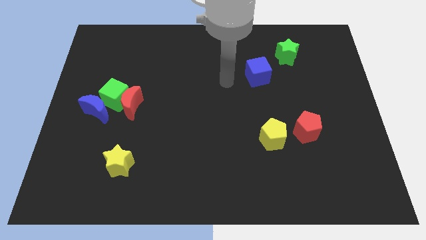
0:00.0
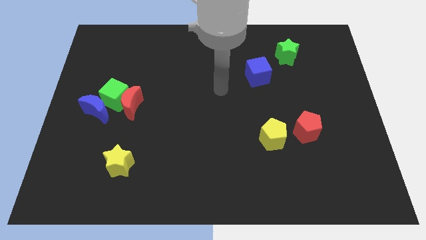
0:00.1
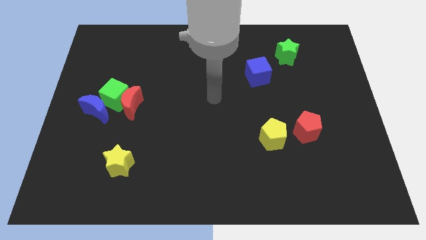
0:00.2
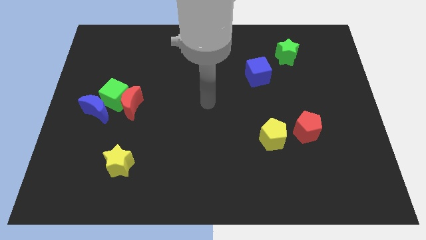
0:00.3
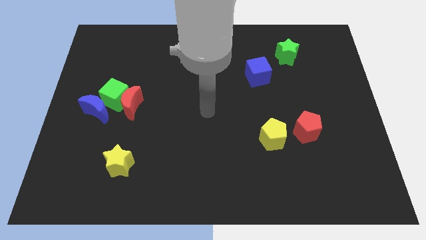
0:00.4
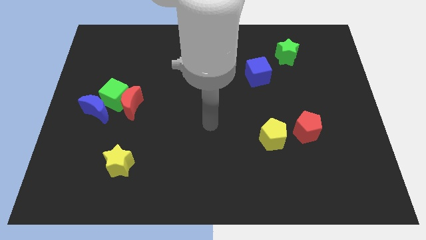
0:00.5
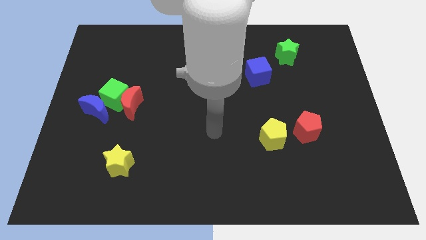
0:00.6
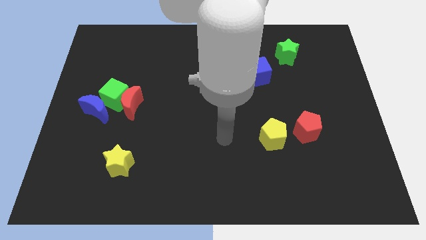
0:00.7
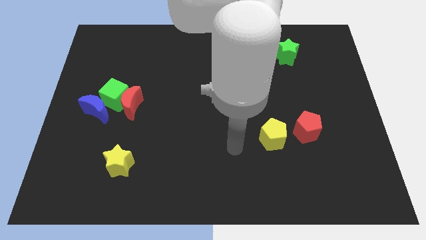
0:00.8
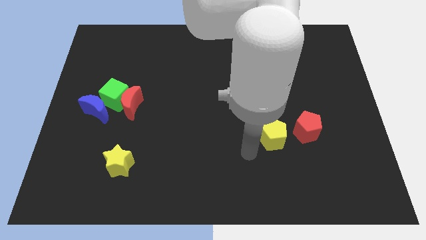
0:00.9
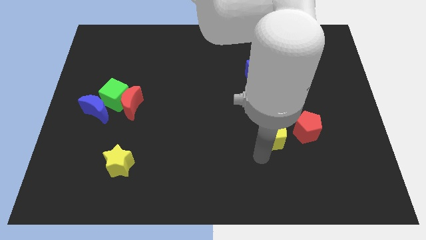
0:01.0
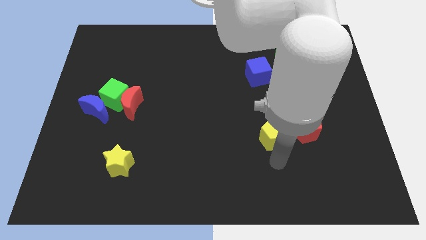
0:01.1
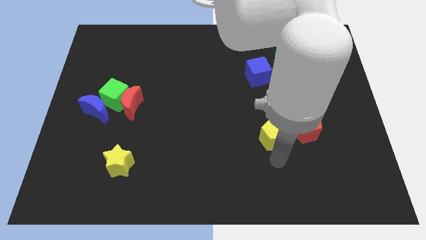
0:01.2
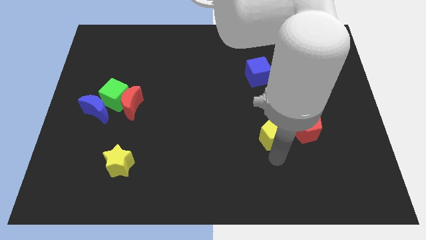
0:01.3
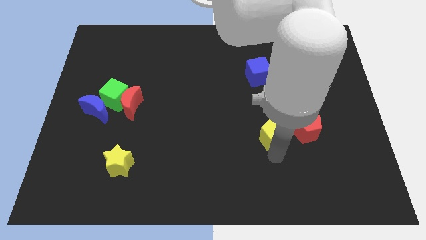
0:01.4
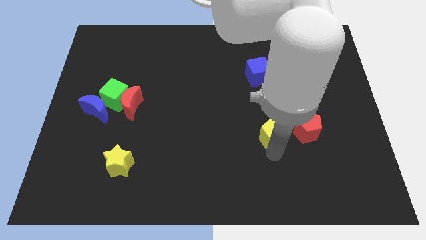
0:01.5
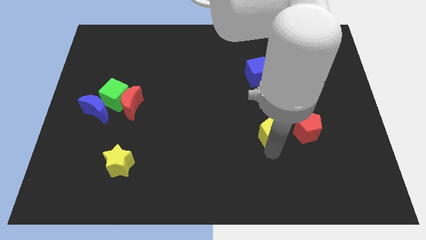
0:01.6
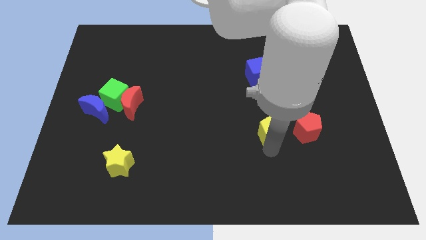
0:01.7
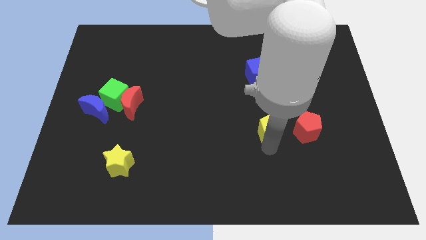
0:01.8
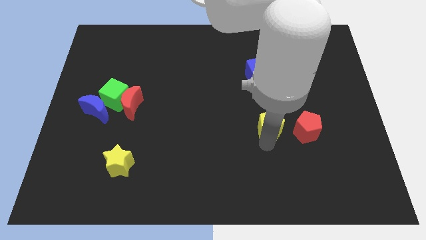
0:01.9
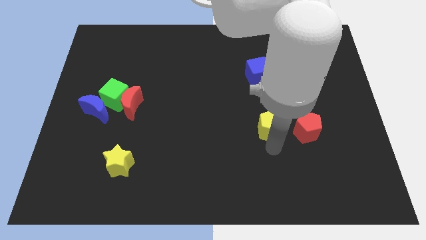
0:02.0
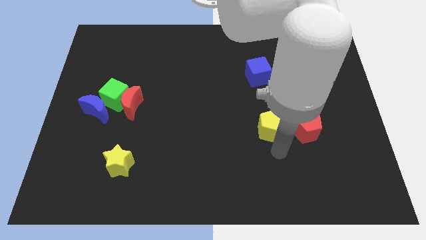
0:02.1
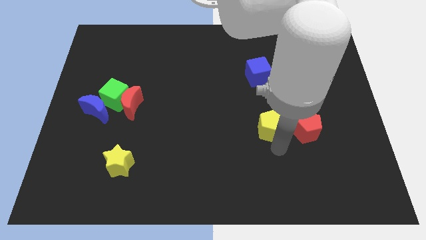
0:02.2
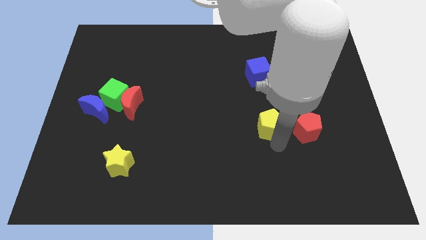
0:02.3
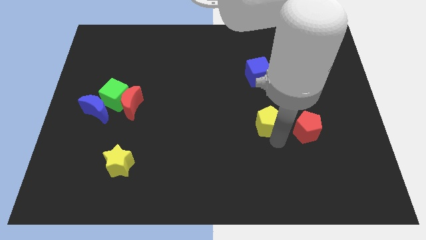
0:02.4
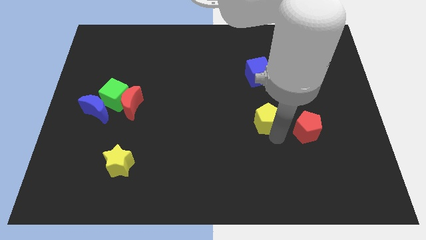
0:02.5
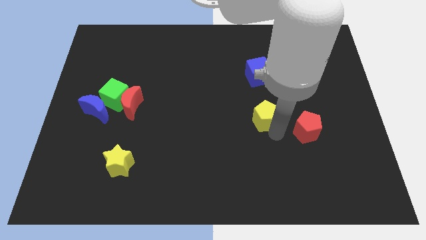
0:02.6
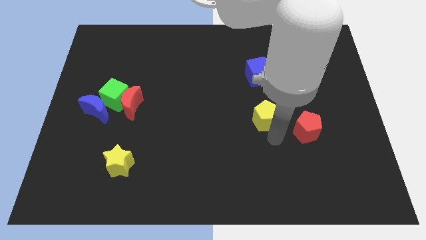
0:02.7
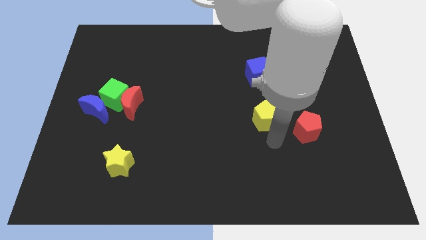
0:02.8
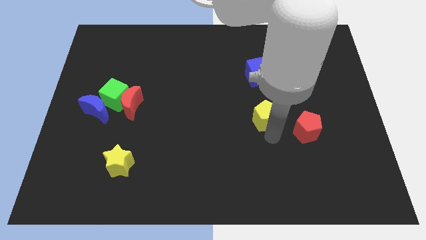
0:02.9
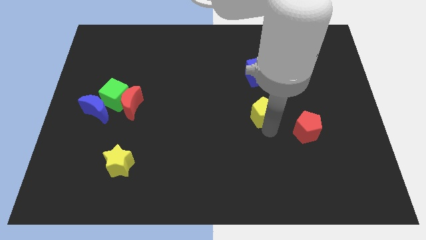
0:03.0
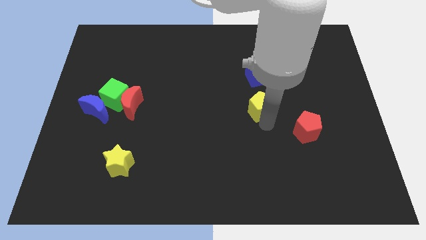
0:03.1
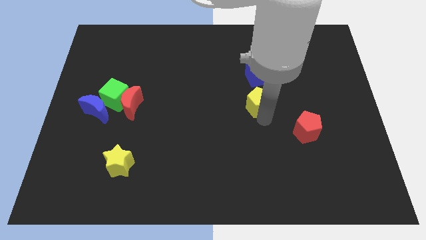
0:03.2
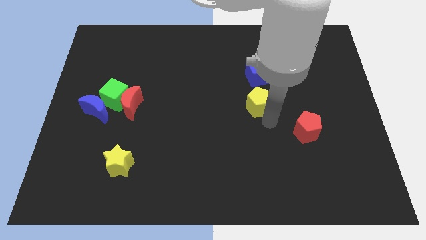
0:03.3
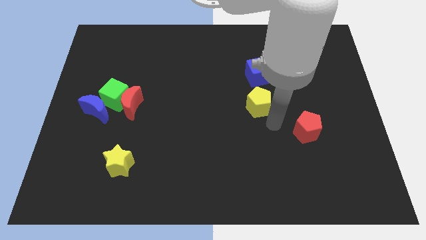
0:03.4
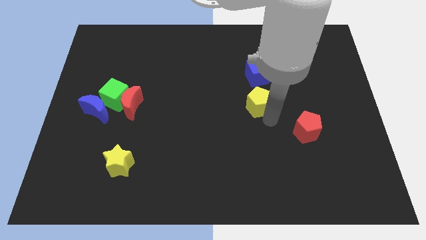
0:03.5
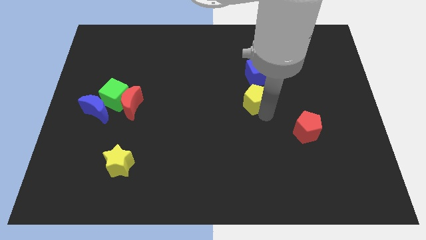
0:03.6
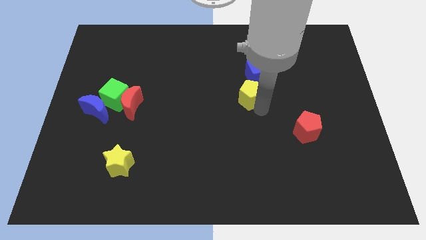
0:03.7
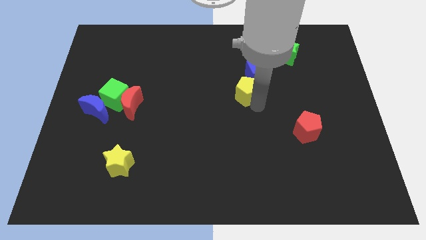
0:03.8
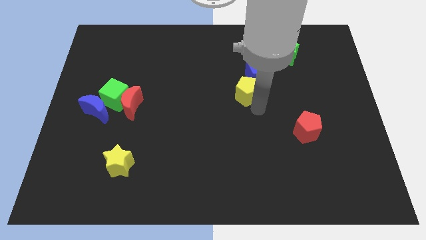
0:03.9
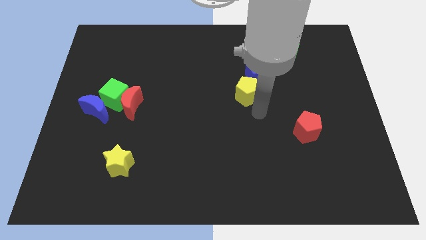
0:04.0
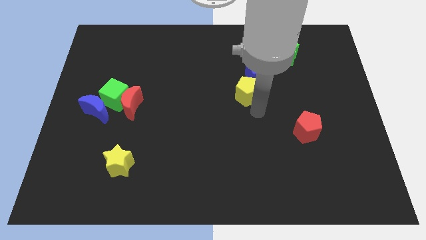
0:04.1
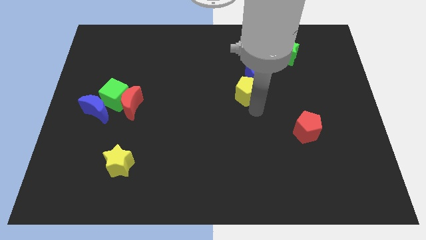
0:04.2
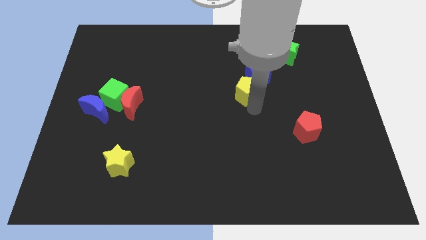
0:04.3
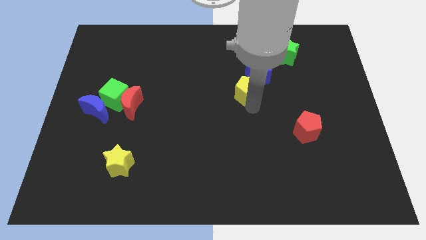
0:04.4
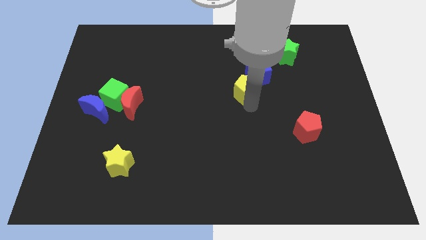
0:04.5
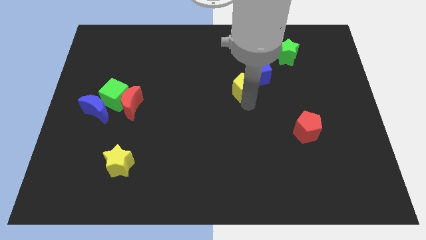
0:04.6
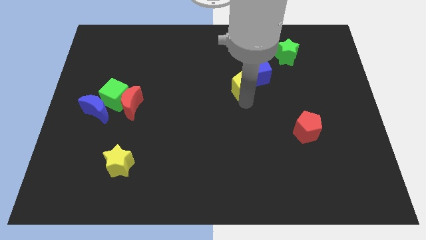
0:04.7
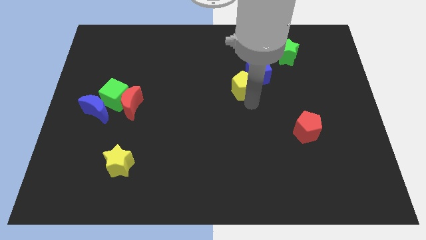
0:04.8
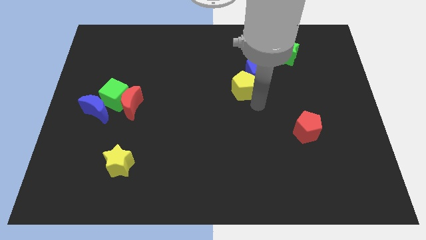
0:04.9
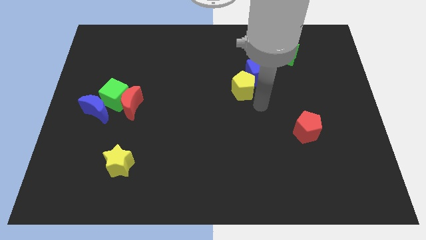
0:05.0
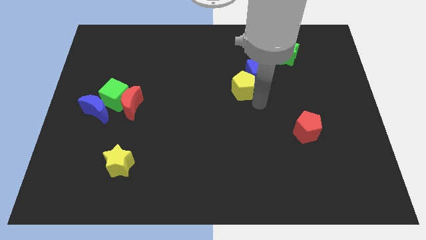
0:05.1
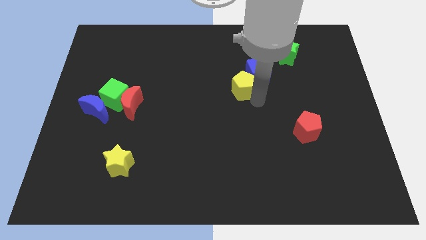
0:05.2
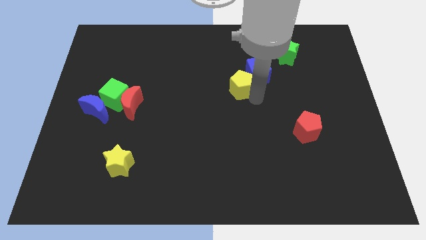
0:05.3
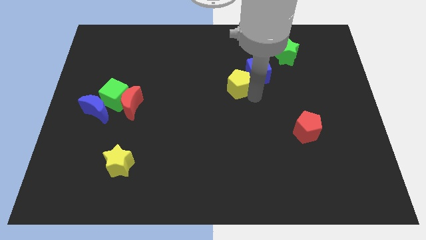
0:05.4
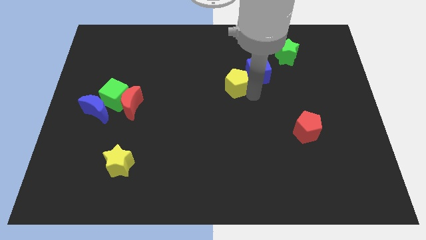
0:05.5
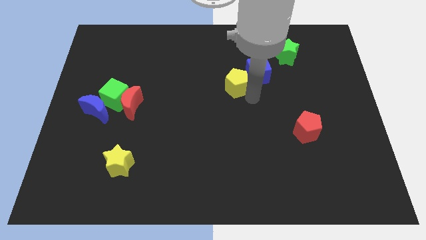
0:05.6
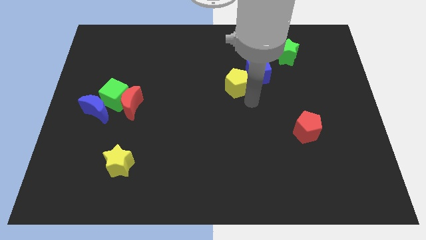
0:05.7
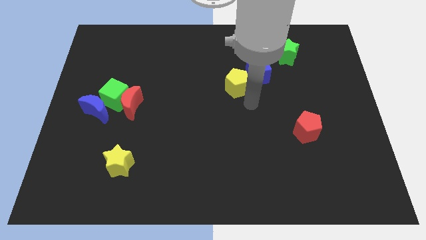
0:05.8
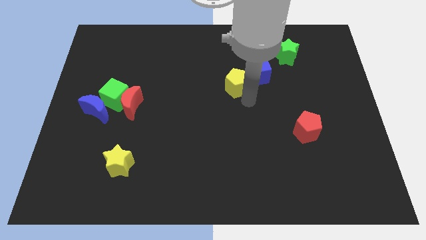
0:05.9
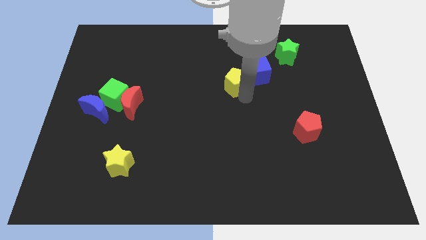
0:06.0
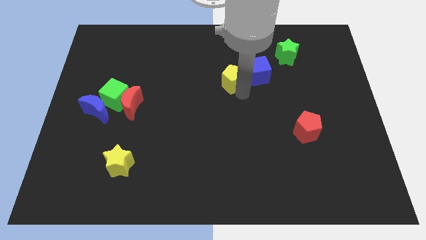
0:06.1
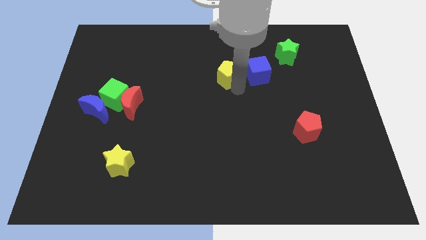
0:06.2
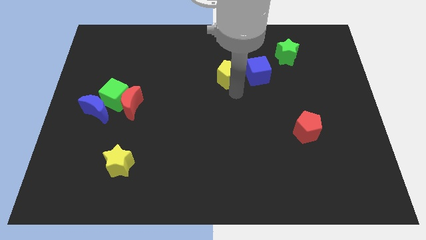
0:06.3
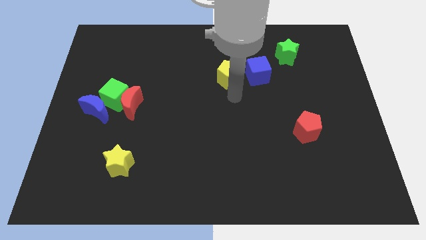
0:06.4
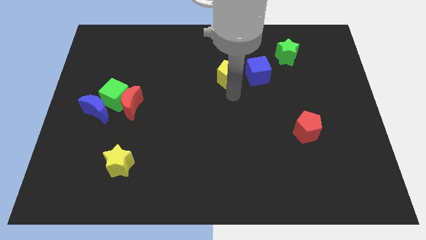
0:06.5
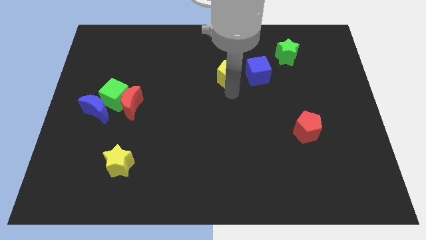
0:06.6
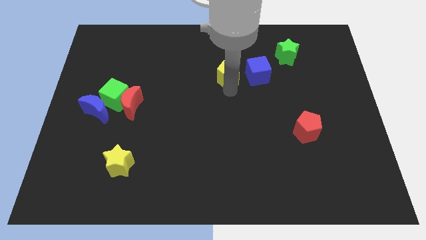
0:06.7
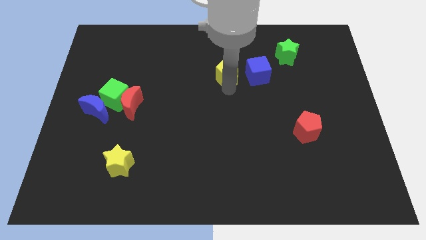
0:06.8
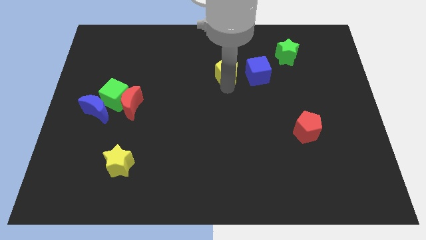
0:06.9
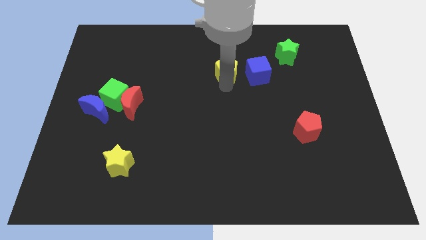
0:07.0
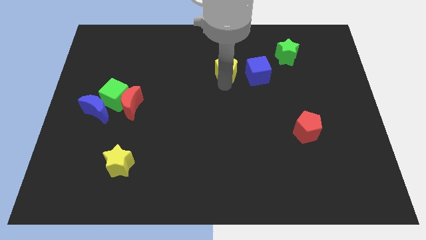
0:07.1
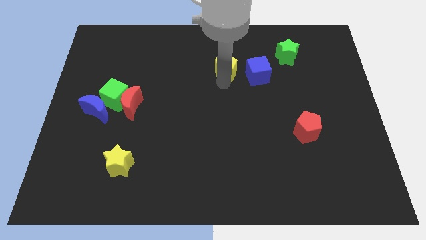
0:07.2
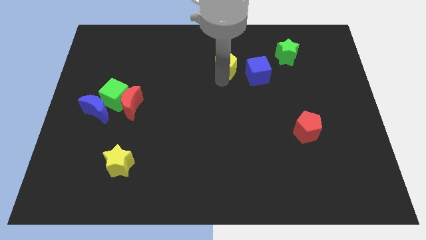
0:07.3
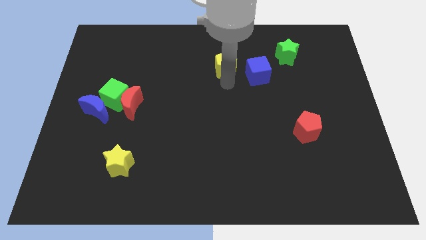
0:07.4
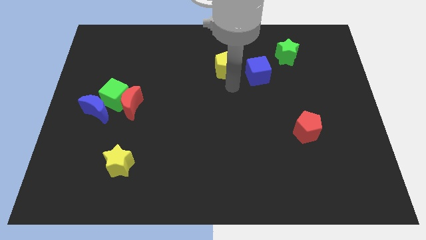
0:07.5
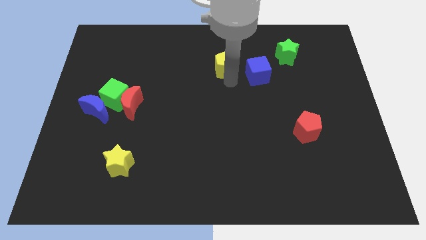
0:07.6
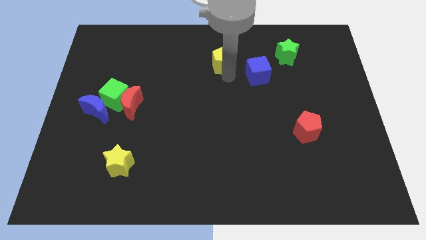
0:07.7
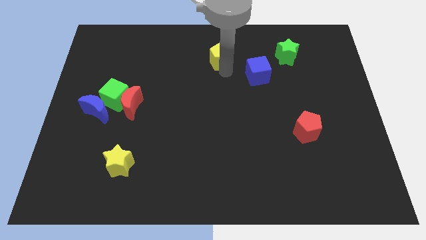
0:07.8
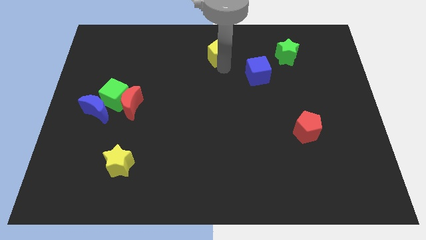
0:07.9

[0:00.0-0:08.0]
push the yellow pentagon to the towards your base
